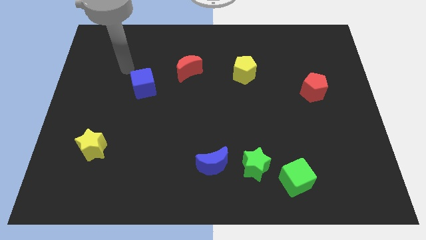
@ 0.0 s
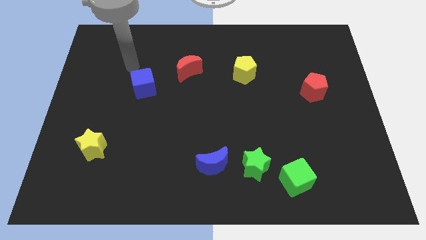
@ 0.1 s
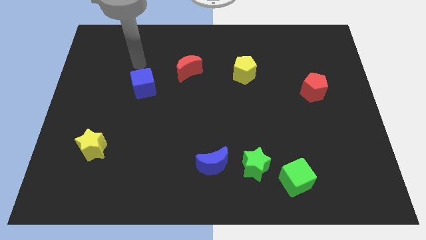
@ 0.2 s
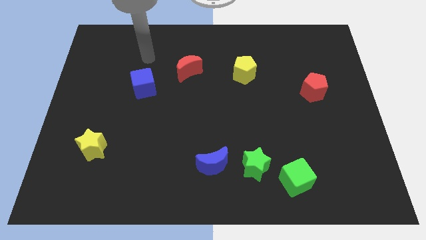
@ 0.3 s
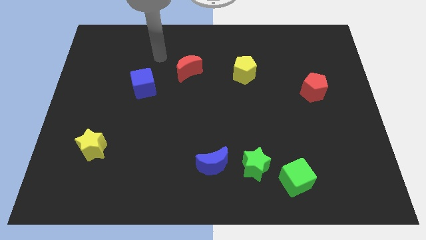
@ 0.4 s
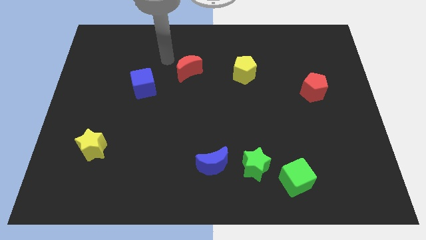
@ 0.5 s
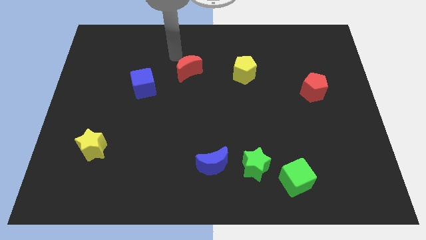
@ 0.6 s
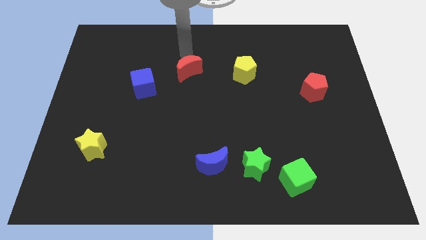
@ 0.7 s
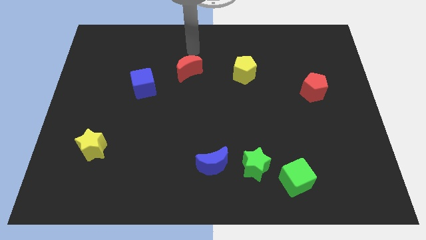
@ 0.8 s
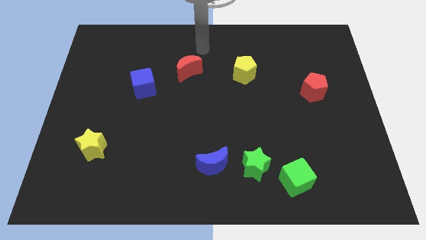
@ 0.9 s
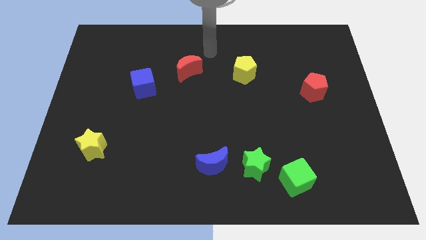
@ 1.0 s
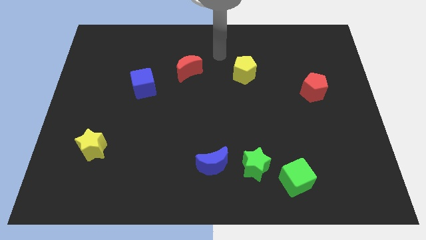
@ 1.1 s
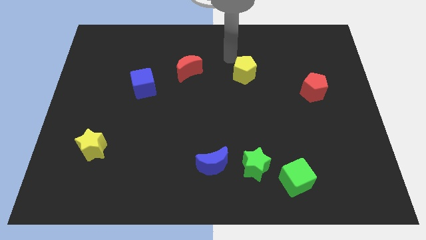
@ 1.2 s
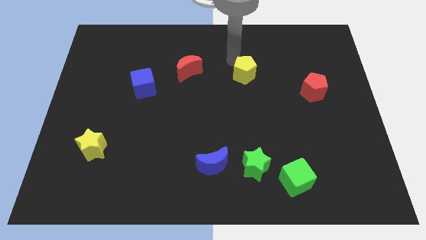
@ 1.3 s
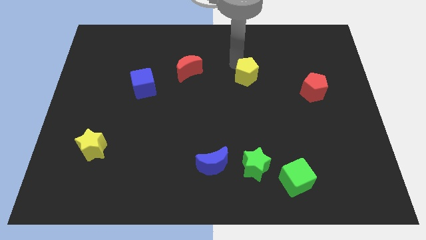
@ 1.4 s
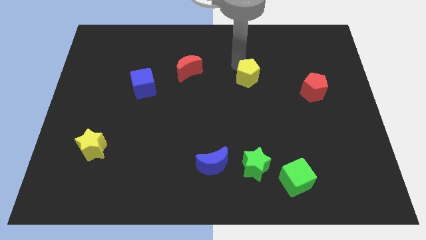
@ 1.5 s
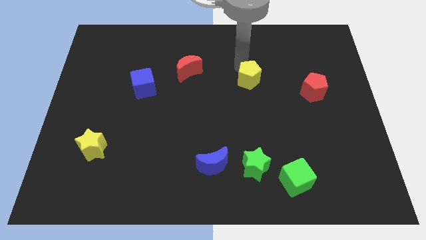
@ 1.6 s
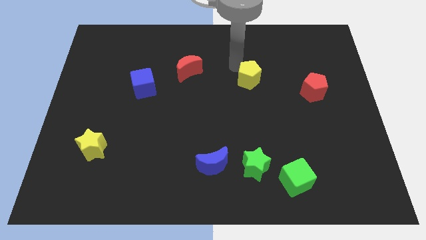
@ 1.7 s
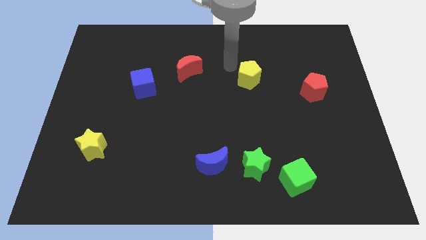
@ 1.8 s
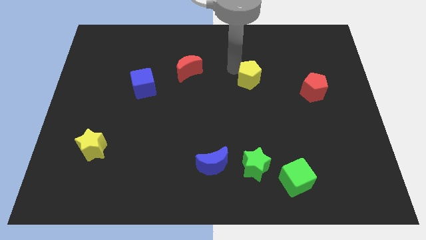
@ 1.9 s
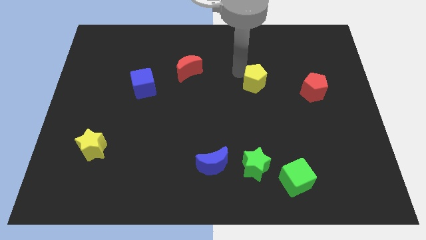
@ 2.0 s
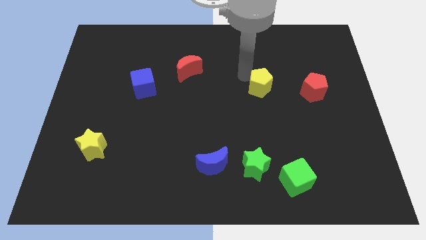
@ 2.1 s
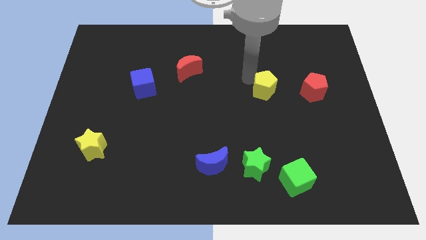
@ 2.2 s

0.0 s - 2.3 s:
slightly move the yellow pentagon down and to the right

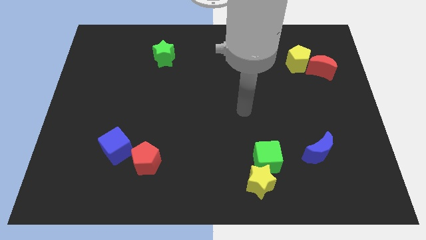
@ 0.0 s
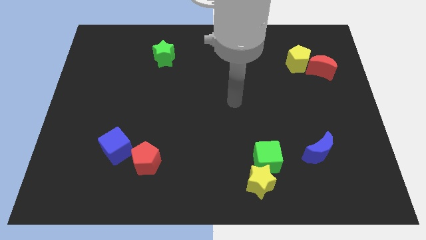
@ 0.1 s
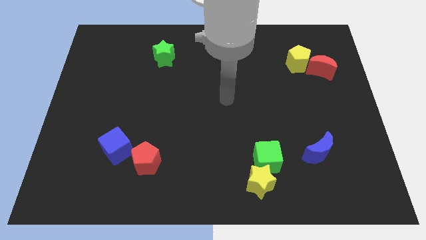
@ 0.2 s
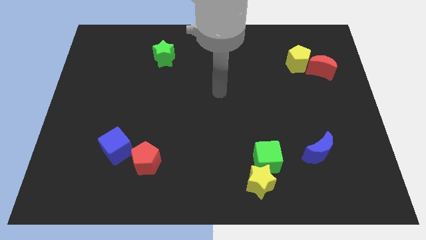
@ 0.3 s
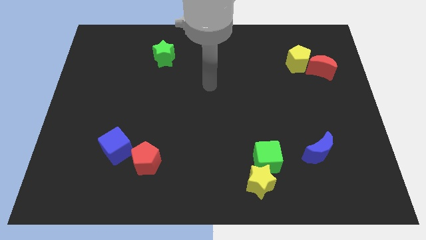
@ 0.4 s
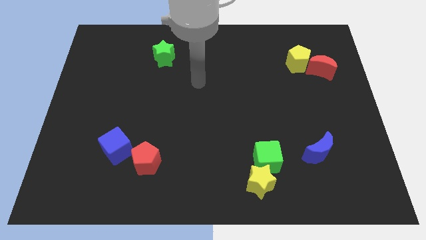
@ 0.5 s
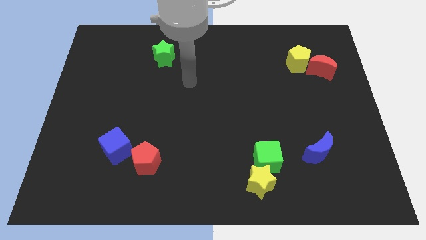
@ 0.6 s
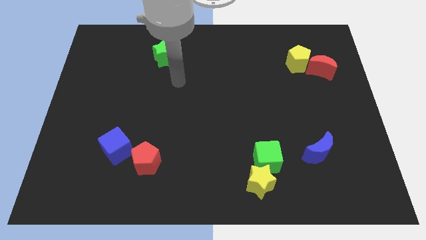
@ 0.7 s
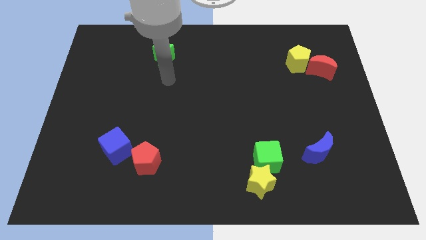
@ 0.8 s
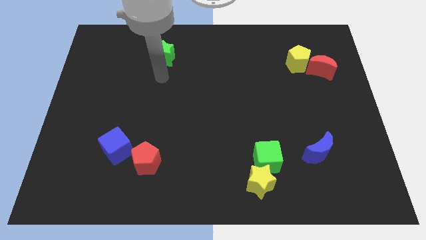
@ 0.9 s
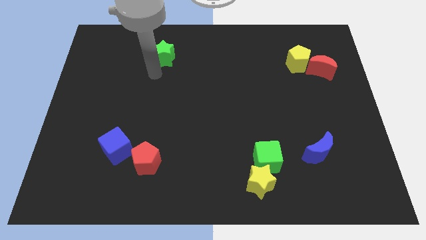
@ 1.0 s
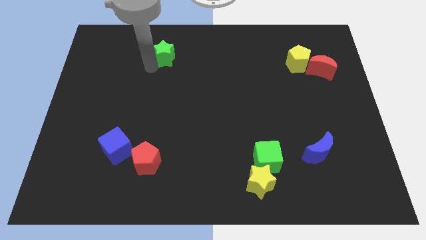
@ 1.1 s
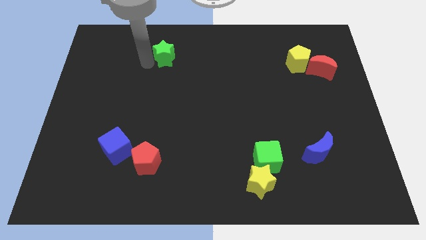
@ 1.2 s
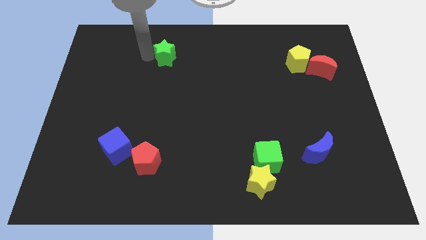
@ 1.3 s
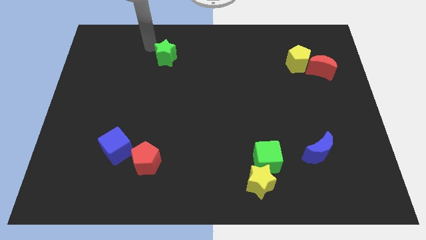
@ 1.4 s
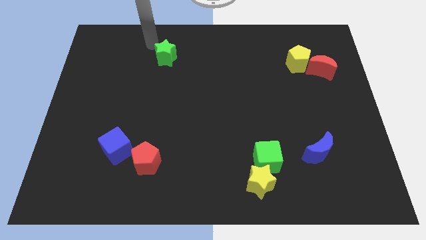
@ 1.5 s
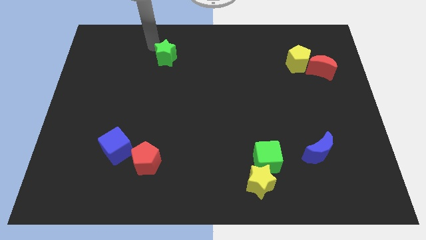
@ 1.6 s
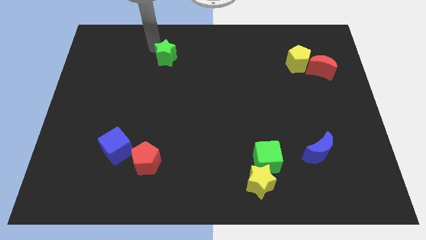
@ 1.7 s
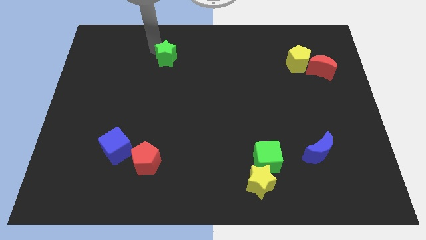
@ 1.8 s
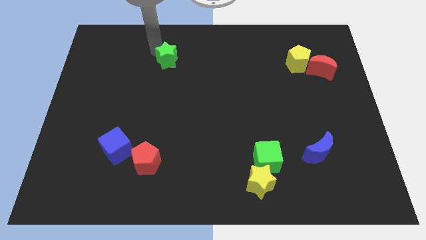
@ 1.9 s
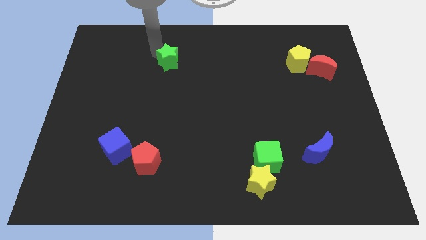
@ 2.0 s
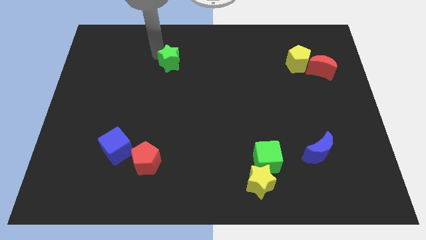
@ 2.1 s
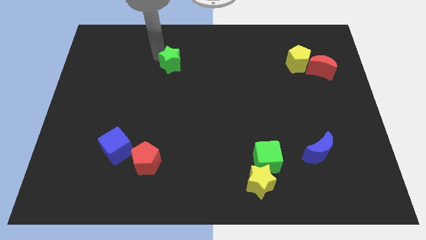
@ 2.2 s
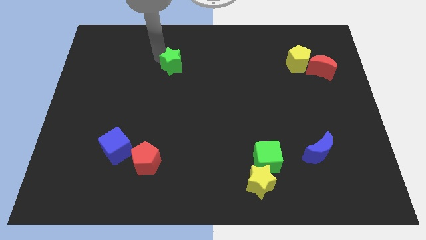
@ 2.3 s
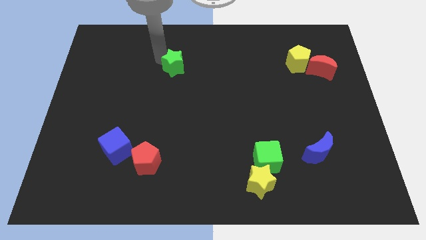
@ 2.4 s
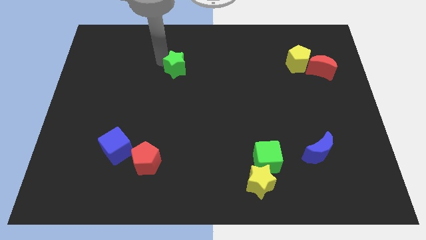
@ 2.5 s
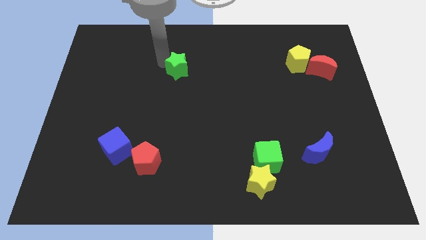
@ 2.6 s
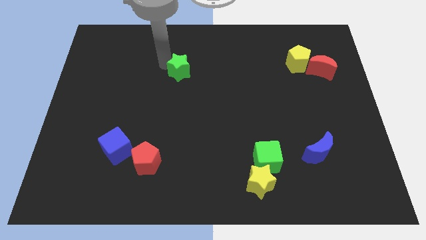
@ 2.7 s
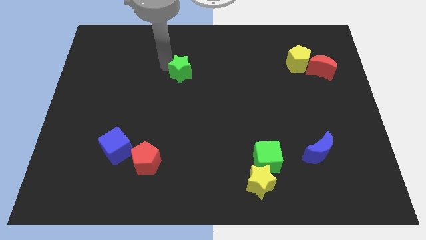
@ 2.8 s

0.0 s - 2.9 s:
move the green star a little bit down and right diagonally

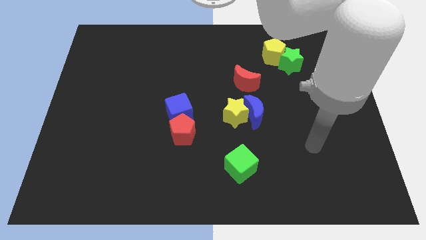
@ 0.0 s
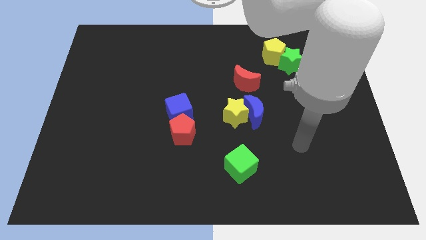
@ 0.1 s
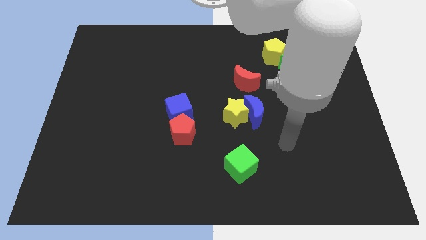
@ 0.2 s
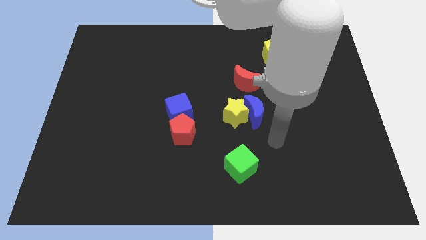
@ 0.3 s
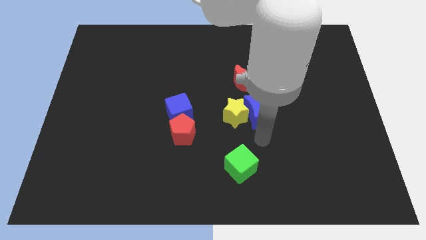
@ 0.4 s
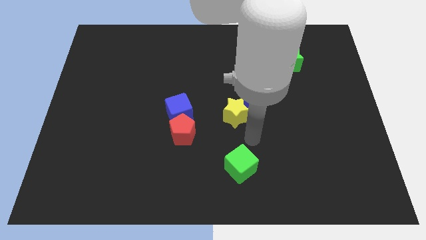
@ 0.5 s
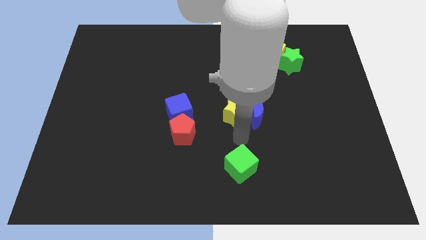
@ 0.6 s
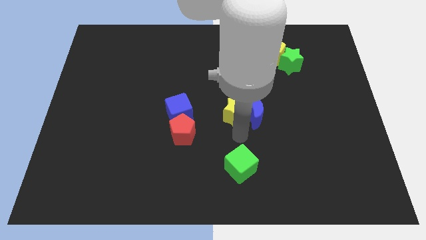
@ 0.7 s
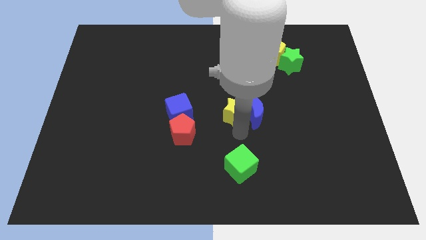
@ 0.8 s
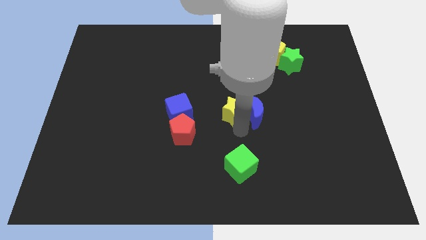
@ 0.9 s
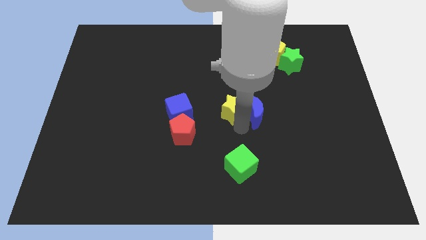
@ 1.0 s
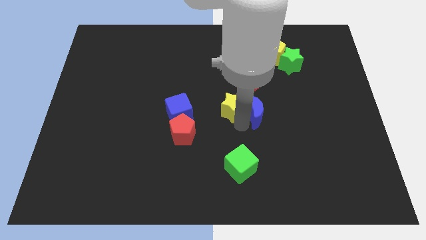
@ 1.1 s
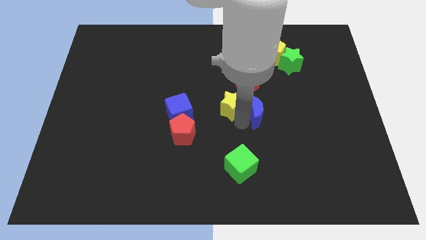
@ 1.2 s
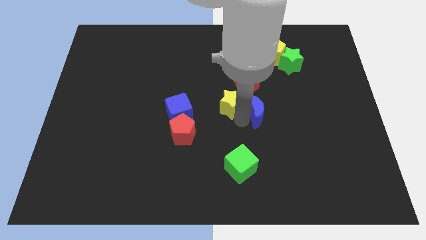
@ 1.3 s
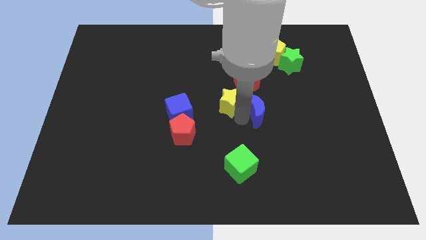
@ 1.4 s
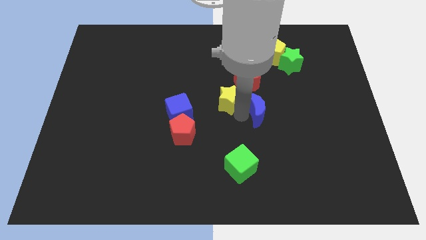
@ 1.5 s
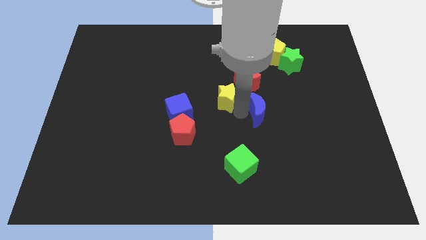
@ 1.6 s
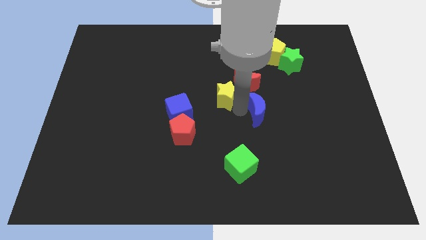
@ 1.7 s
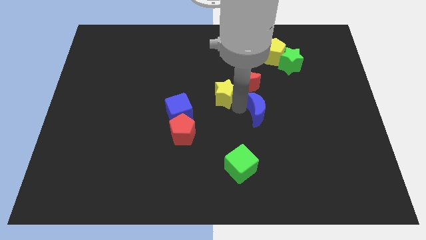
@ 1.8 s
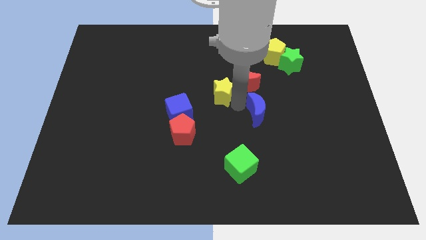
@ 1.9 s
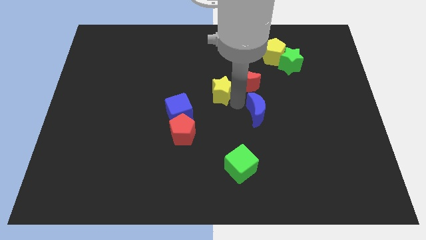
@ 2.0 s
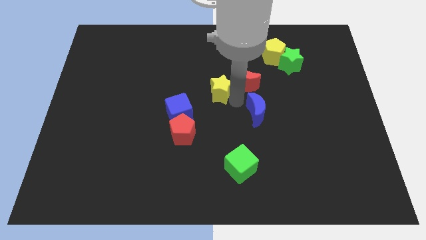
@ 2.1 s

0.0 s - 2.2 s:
push the yellow star upwards a bit

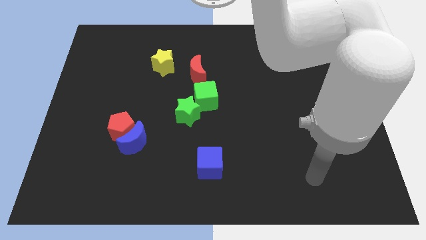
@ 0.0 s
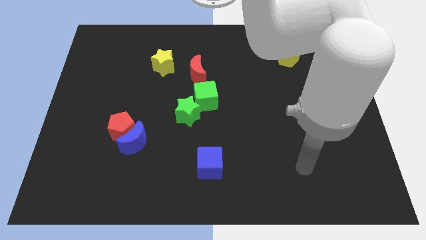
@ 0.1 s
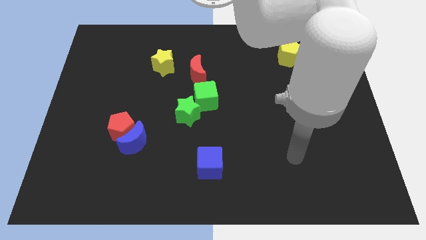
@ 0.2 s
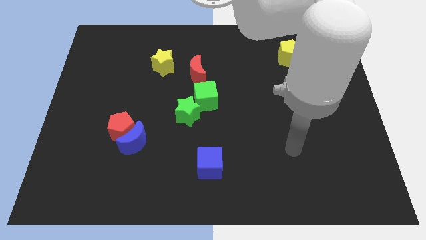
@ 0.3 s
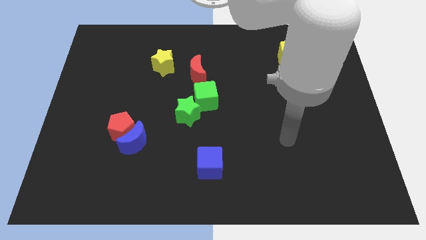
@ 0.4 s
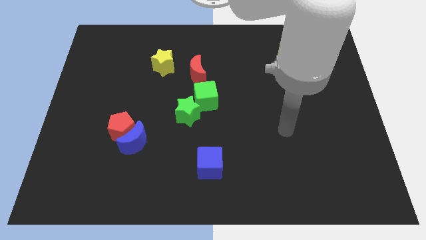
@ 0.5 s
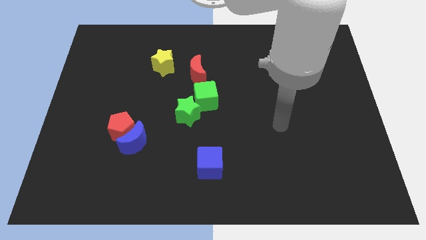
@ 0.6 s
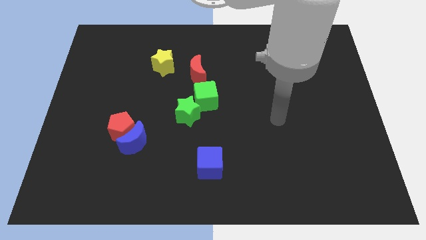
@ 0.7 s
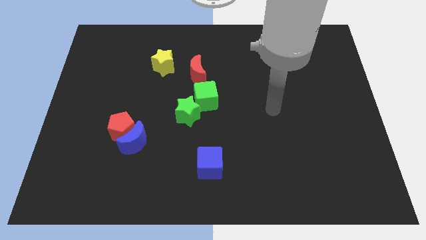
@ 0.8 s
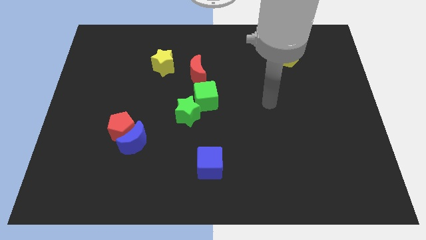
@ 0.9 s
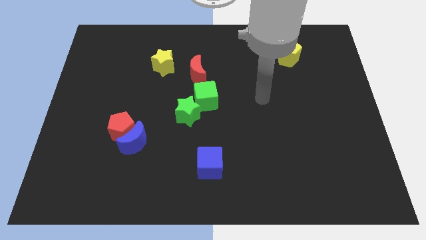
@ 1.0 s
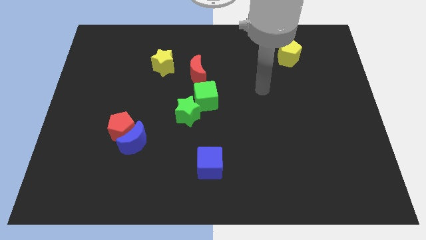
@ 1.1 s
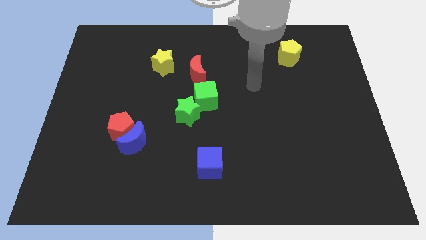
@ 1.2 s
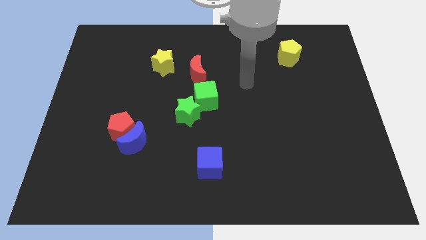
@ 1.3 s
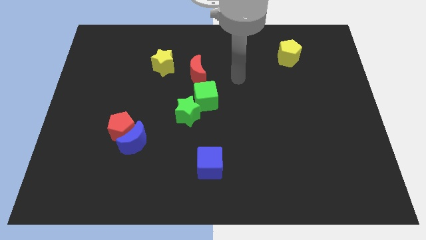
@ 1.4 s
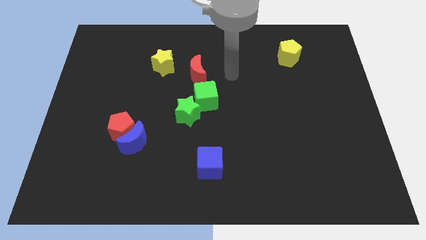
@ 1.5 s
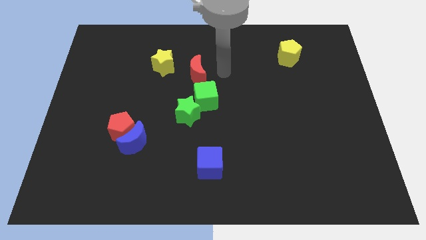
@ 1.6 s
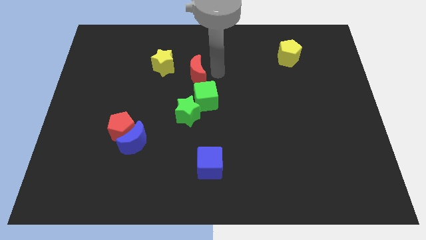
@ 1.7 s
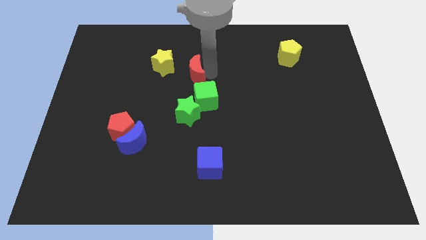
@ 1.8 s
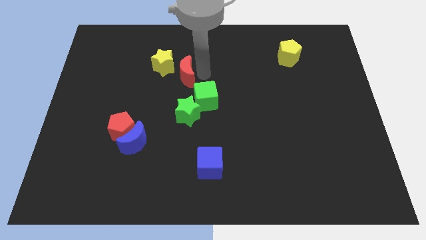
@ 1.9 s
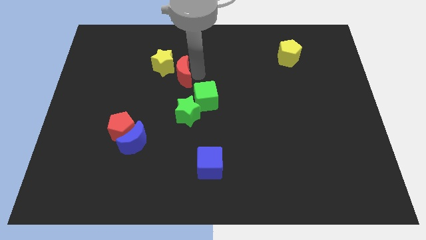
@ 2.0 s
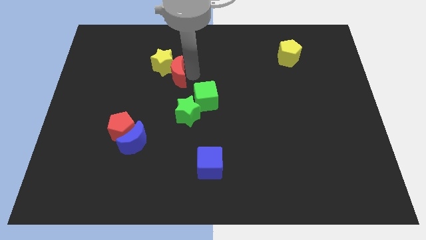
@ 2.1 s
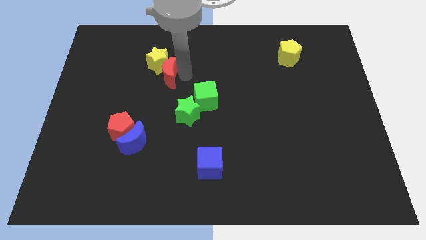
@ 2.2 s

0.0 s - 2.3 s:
move the red moon left a little
